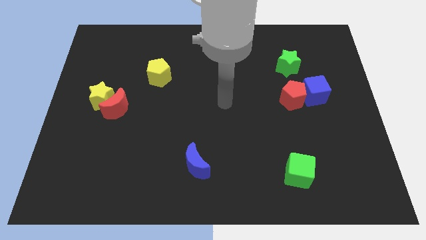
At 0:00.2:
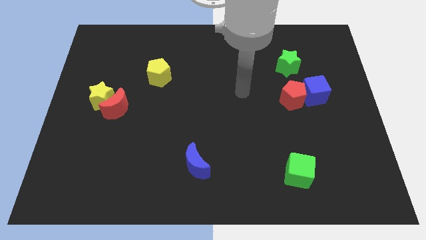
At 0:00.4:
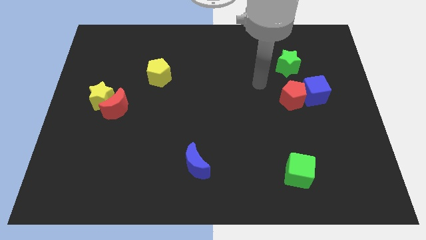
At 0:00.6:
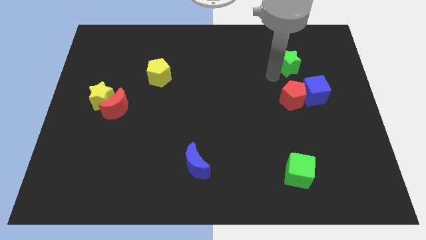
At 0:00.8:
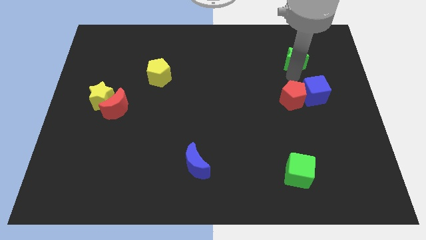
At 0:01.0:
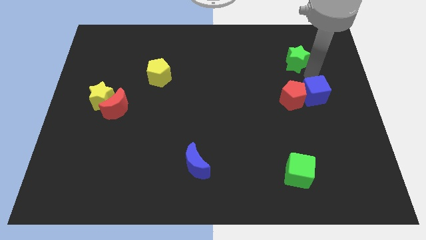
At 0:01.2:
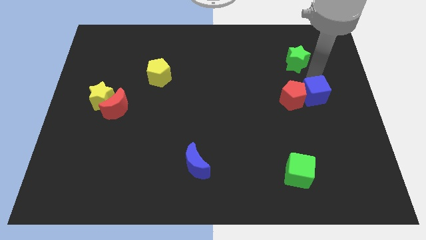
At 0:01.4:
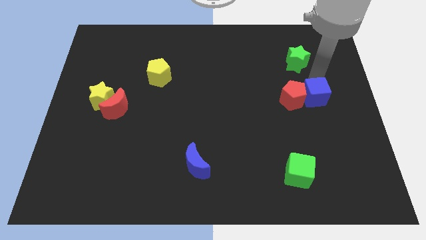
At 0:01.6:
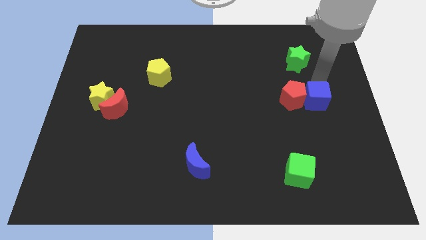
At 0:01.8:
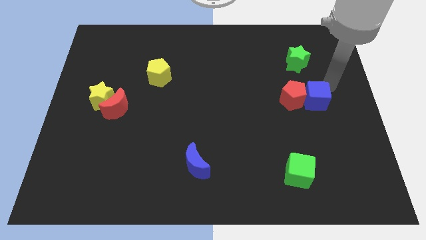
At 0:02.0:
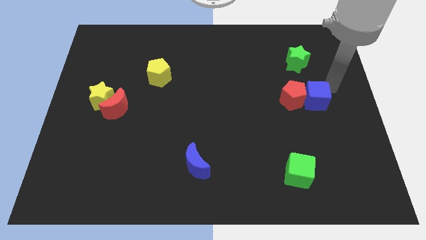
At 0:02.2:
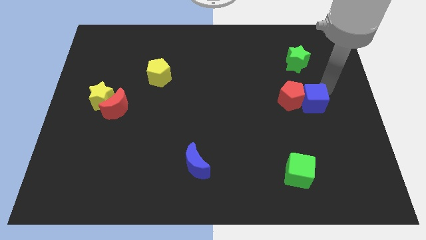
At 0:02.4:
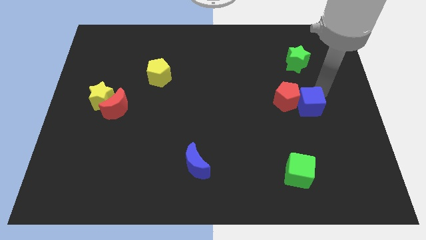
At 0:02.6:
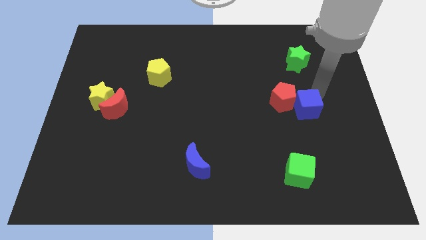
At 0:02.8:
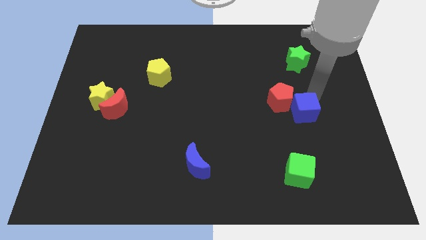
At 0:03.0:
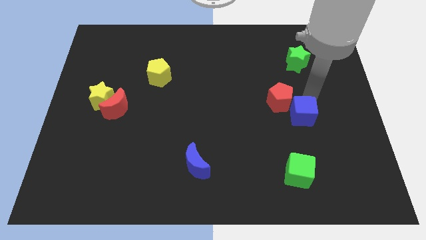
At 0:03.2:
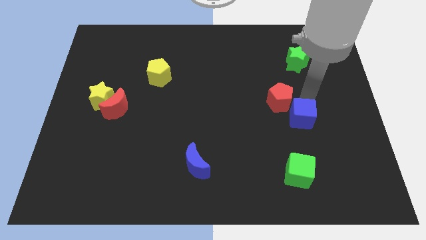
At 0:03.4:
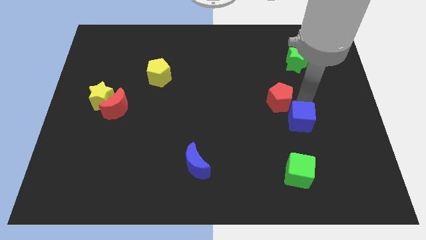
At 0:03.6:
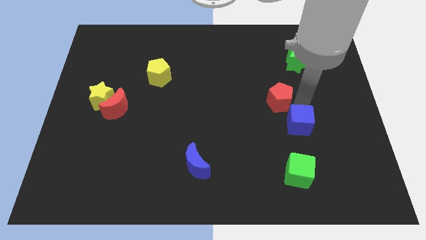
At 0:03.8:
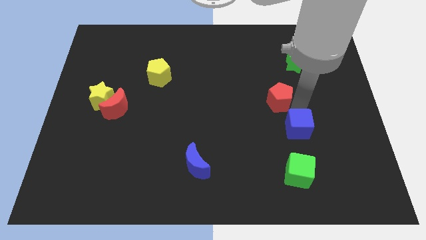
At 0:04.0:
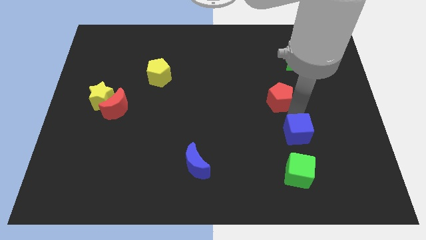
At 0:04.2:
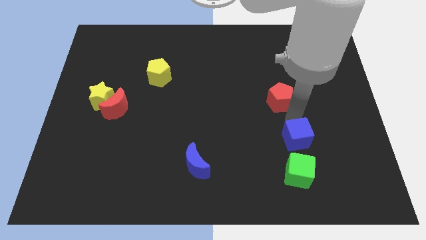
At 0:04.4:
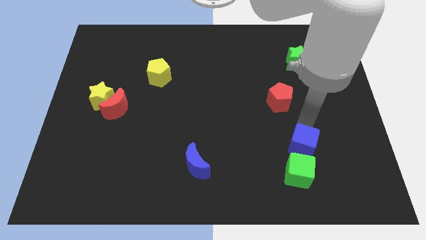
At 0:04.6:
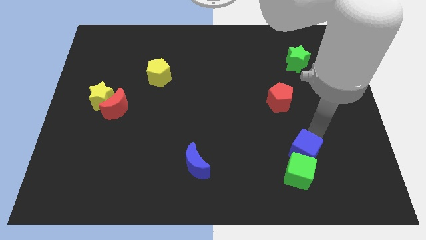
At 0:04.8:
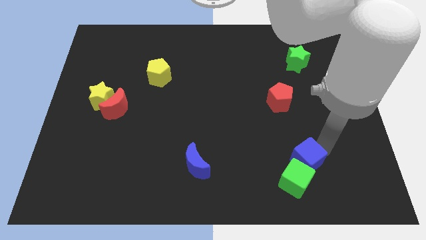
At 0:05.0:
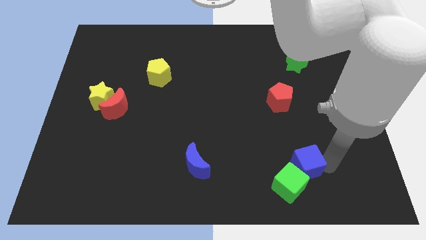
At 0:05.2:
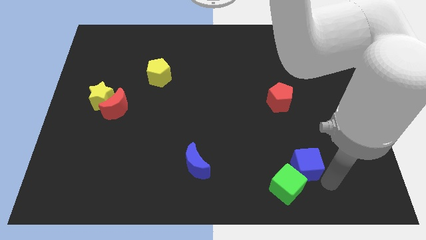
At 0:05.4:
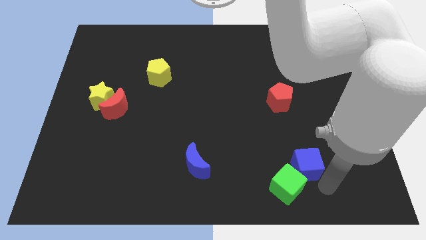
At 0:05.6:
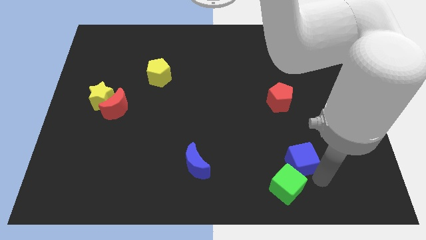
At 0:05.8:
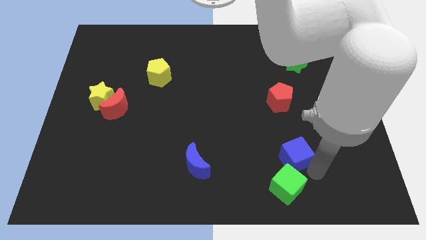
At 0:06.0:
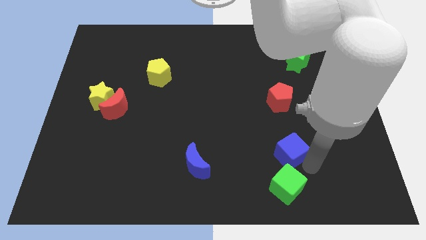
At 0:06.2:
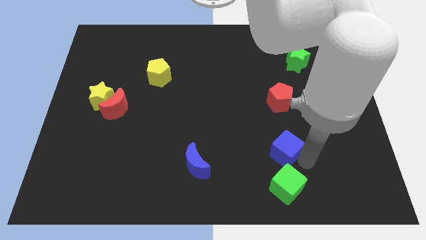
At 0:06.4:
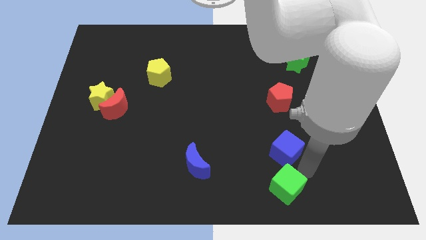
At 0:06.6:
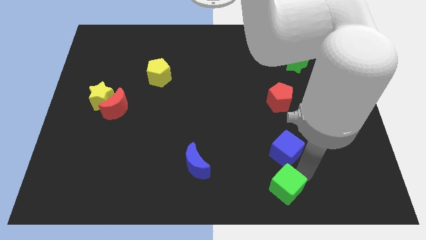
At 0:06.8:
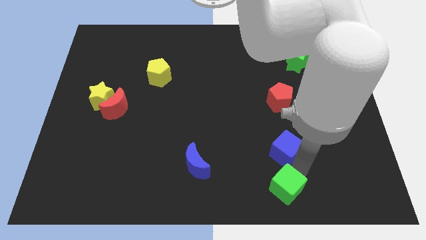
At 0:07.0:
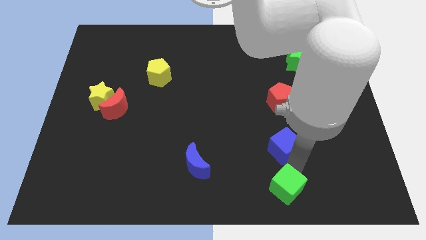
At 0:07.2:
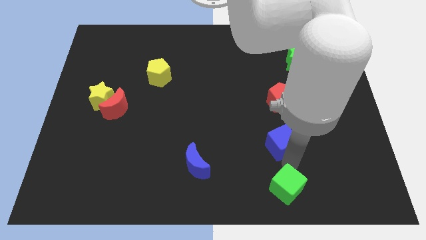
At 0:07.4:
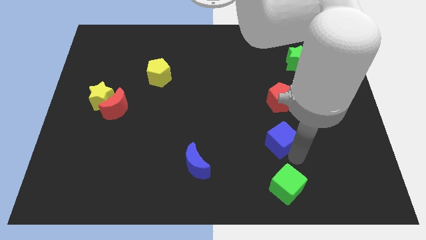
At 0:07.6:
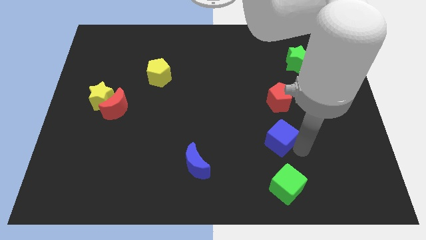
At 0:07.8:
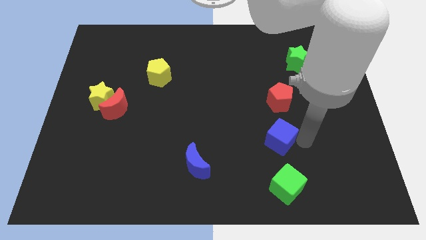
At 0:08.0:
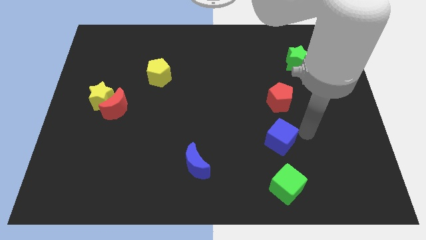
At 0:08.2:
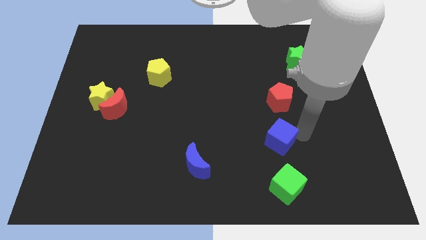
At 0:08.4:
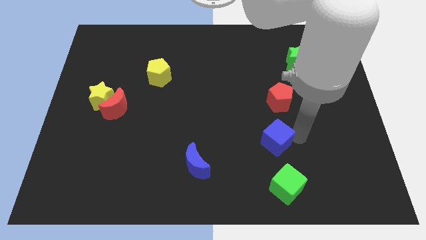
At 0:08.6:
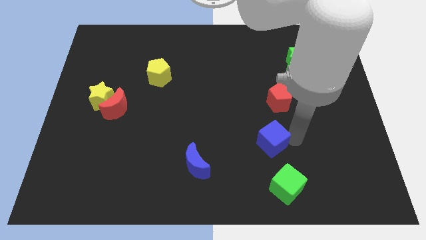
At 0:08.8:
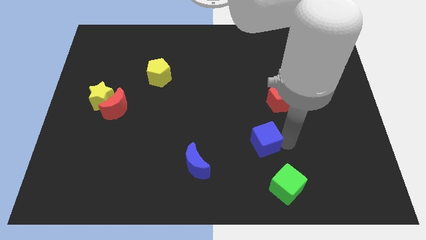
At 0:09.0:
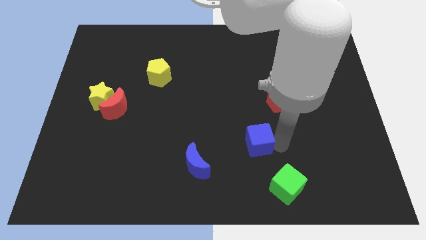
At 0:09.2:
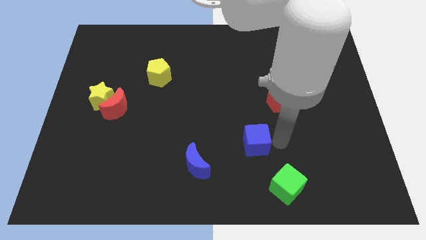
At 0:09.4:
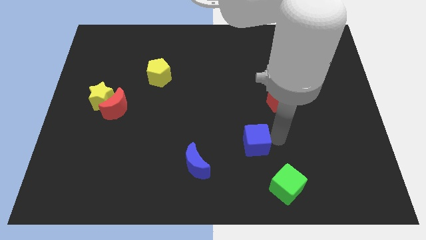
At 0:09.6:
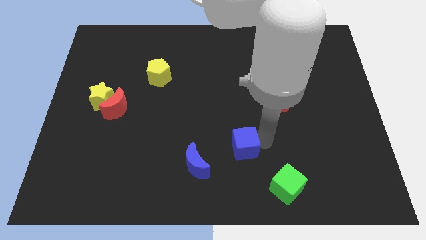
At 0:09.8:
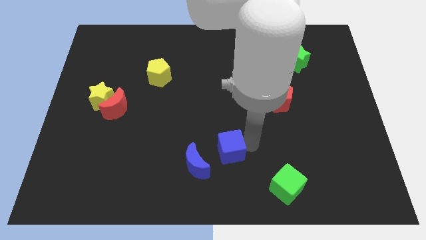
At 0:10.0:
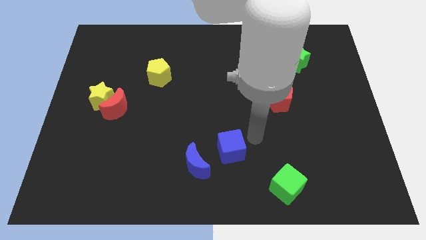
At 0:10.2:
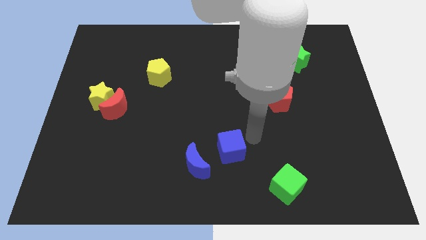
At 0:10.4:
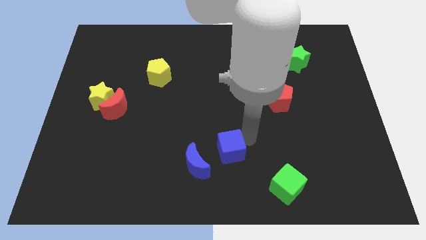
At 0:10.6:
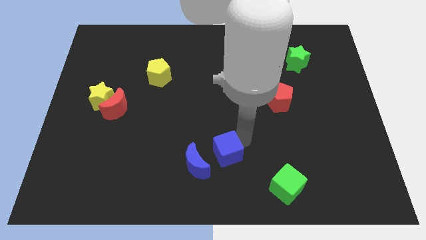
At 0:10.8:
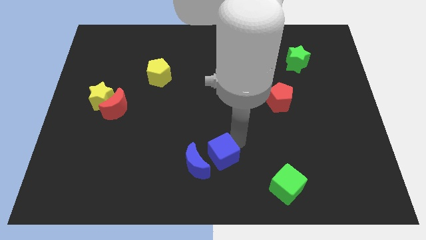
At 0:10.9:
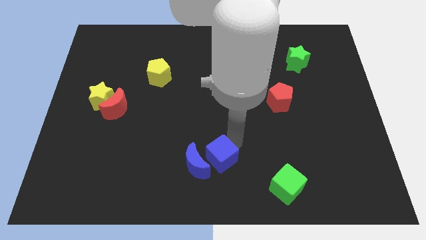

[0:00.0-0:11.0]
put the blue cube close to the blue moon

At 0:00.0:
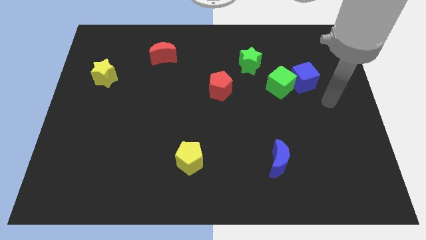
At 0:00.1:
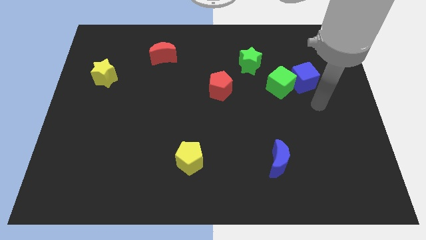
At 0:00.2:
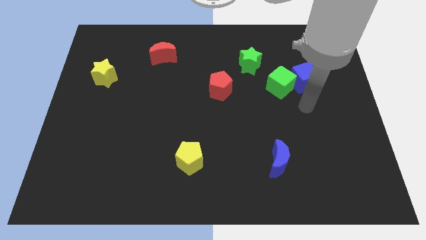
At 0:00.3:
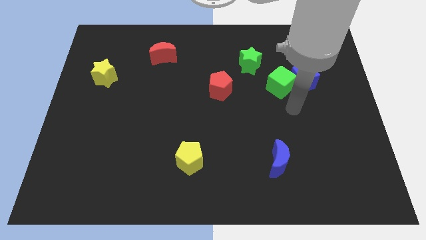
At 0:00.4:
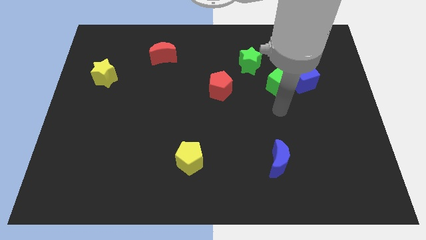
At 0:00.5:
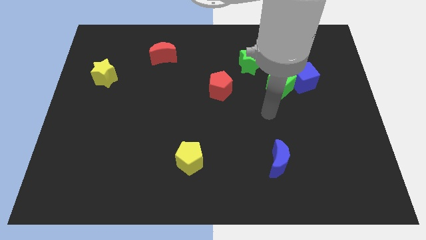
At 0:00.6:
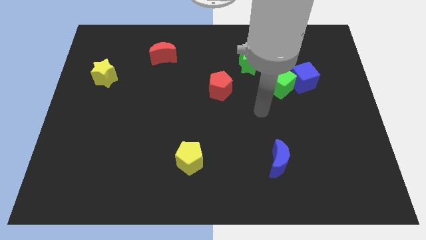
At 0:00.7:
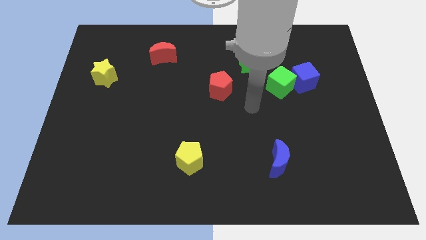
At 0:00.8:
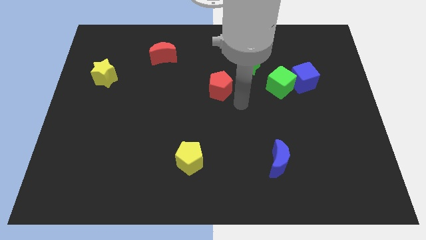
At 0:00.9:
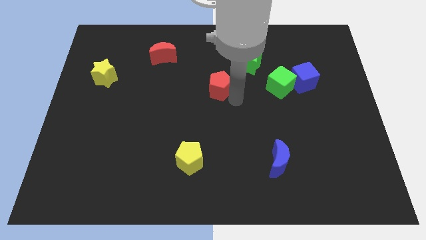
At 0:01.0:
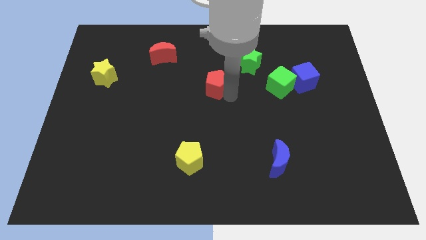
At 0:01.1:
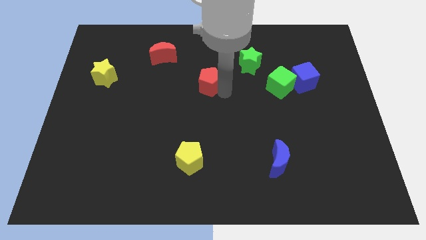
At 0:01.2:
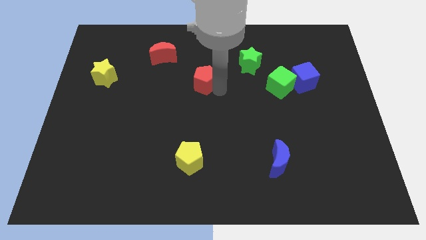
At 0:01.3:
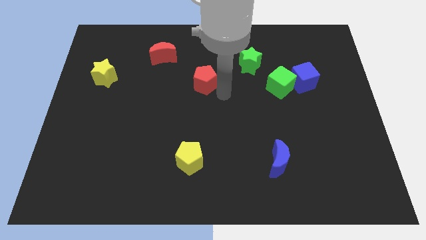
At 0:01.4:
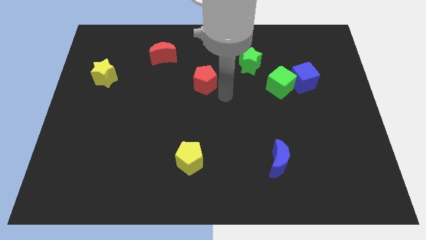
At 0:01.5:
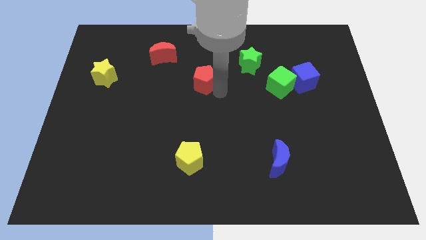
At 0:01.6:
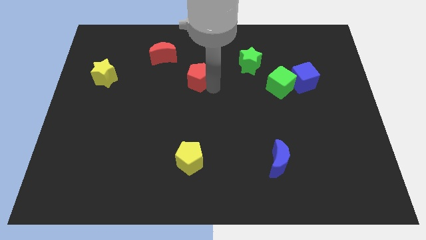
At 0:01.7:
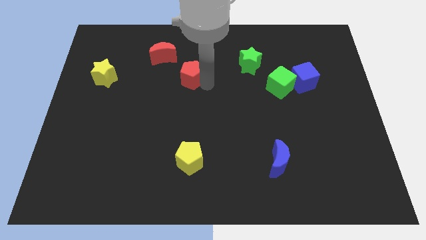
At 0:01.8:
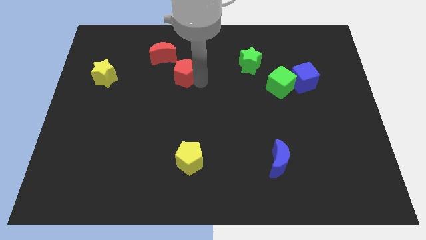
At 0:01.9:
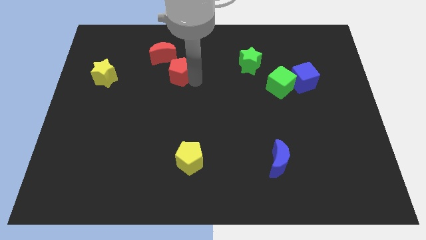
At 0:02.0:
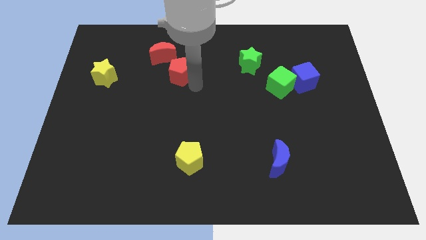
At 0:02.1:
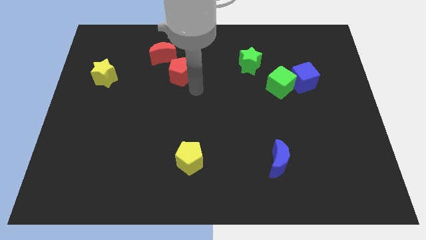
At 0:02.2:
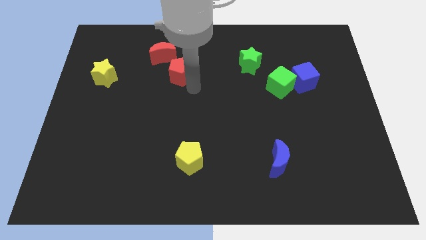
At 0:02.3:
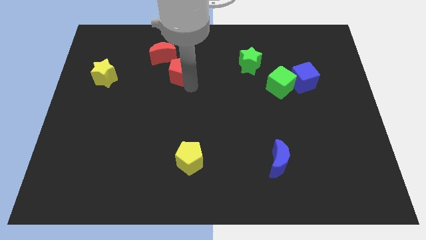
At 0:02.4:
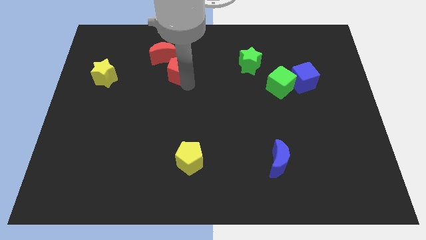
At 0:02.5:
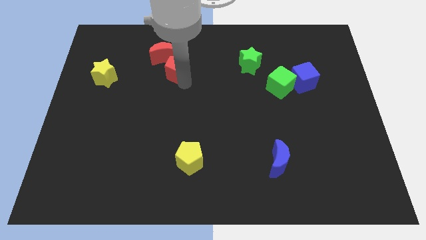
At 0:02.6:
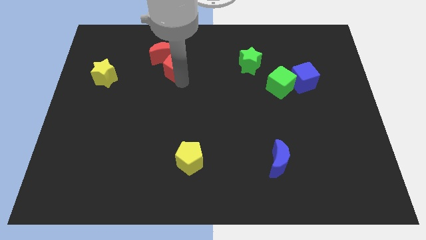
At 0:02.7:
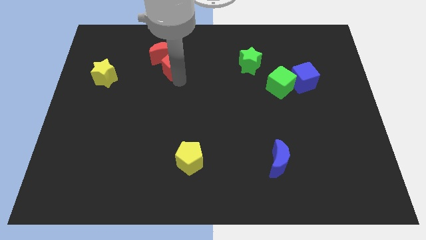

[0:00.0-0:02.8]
put the red pentagon close to the red moon
